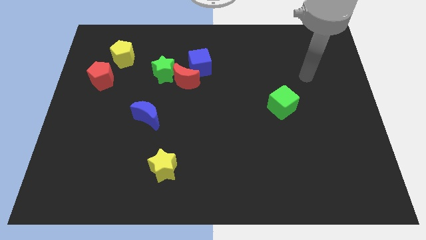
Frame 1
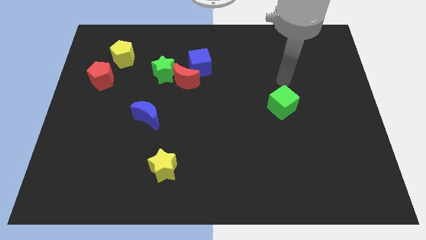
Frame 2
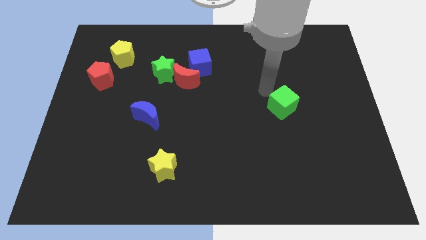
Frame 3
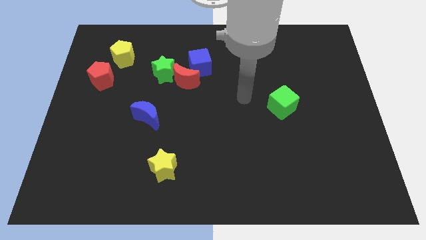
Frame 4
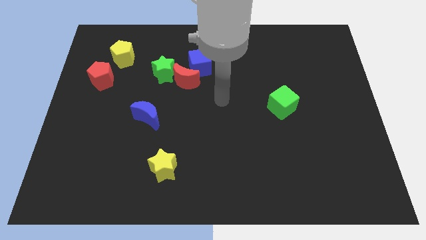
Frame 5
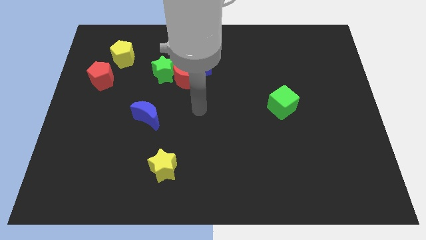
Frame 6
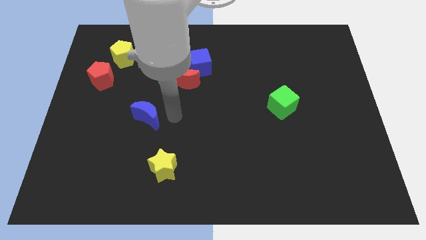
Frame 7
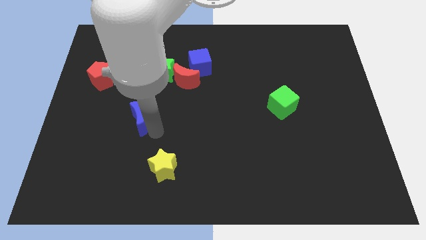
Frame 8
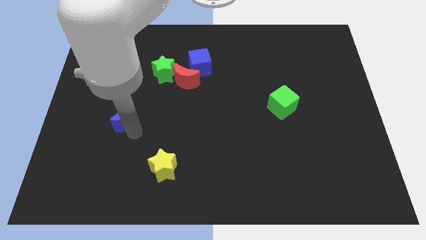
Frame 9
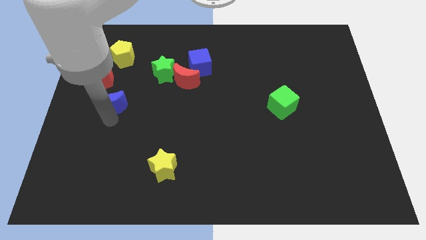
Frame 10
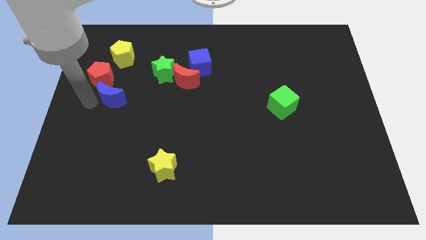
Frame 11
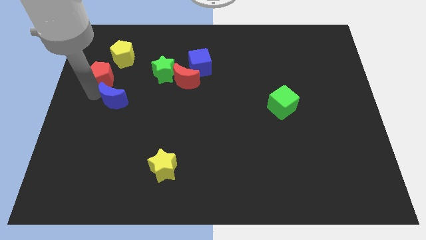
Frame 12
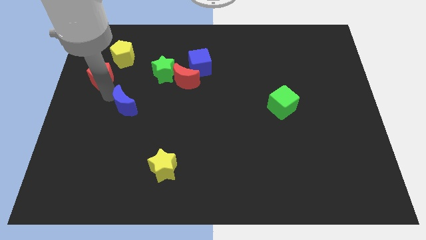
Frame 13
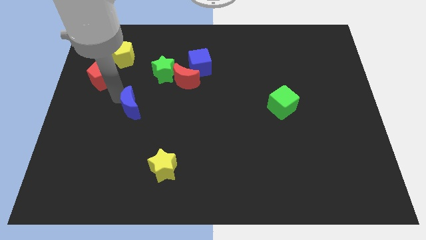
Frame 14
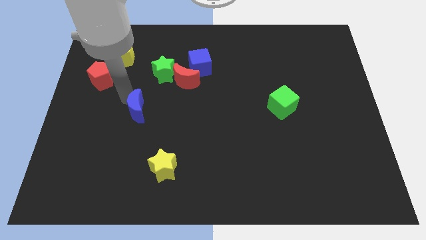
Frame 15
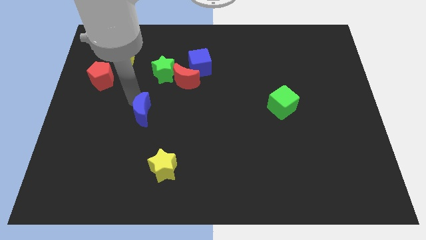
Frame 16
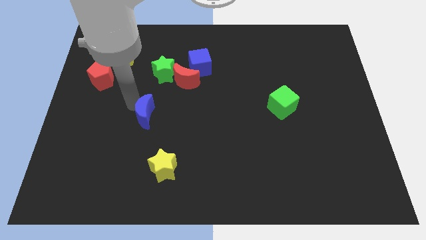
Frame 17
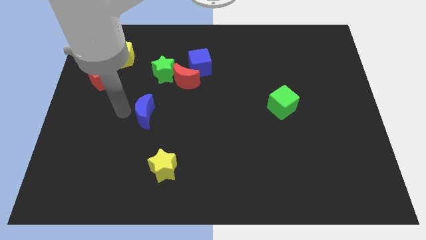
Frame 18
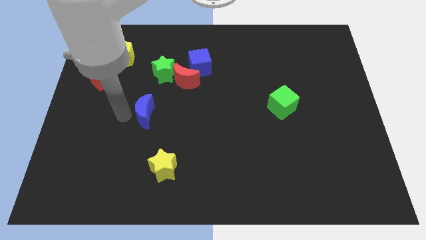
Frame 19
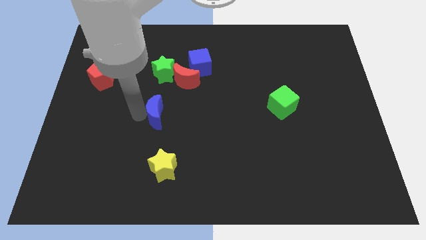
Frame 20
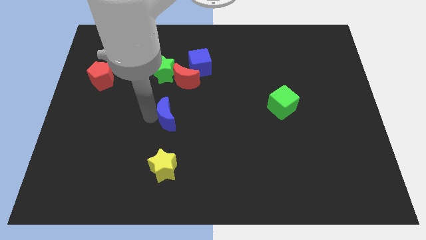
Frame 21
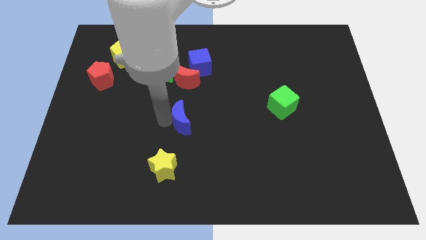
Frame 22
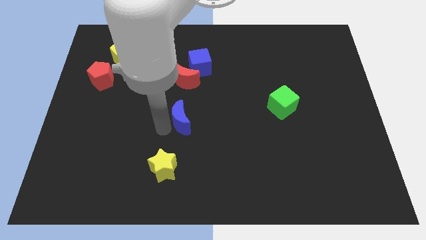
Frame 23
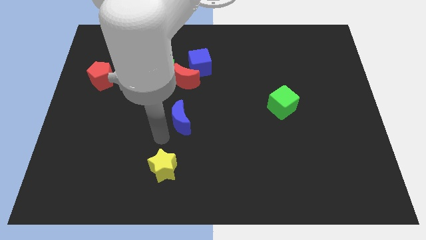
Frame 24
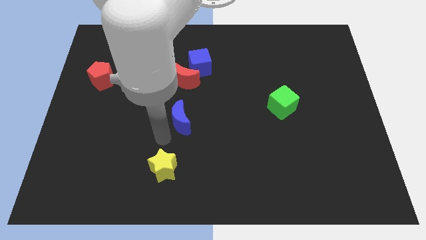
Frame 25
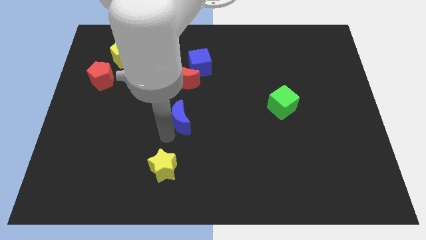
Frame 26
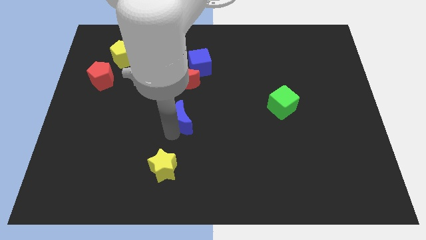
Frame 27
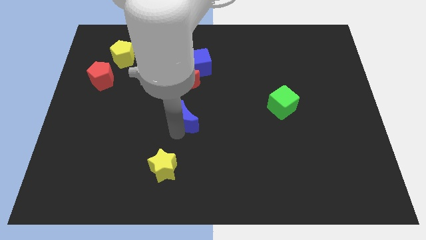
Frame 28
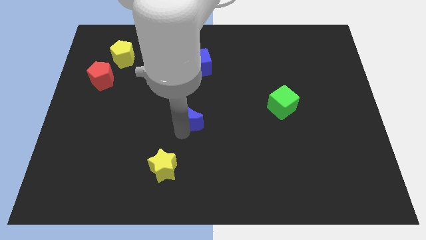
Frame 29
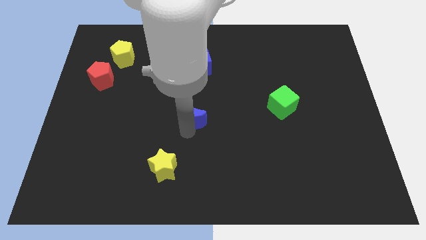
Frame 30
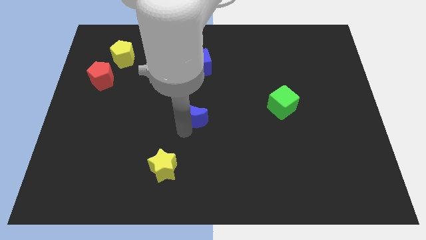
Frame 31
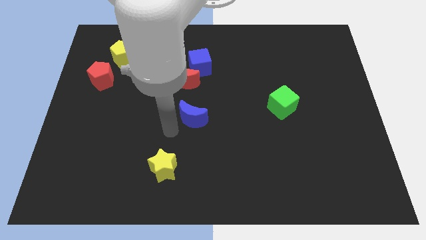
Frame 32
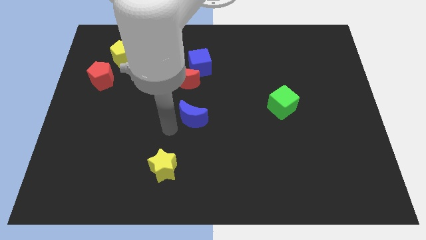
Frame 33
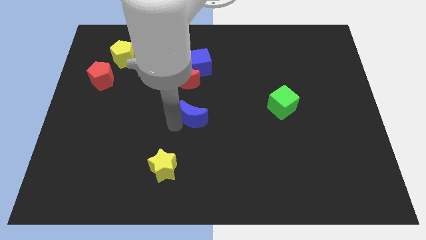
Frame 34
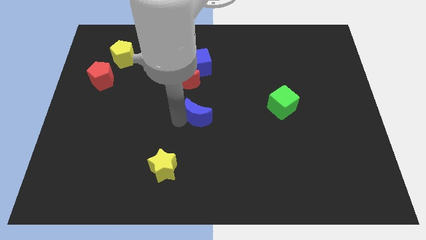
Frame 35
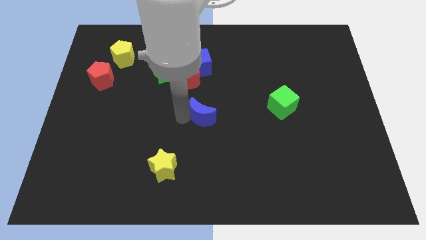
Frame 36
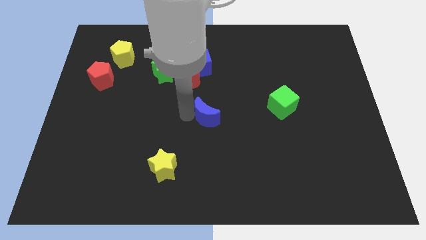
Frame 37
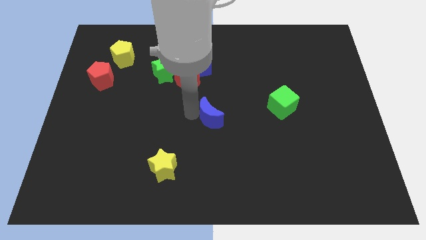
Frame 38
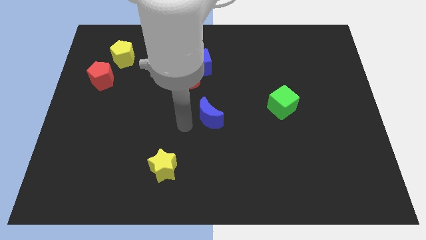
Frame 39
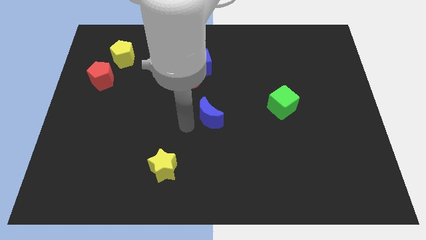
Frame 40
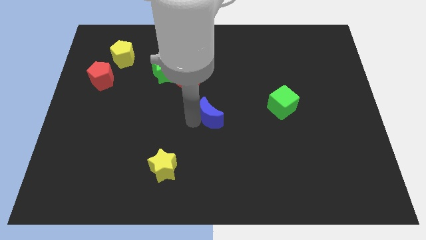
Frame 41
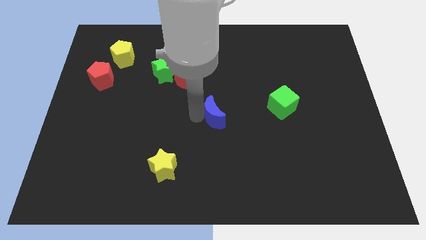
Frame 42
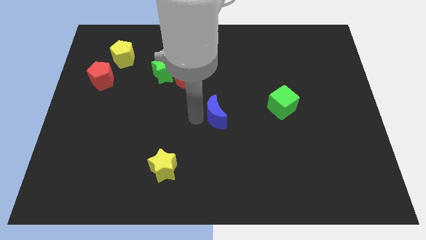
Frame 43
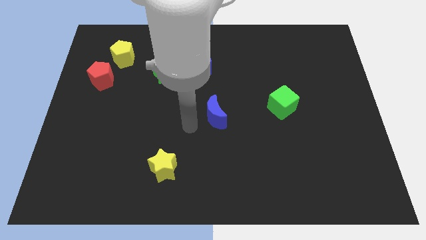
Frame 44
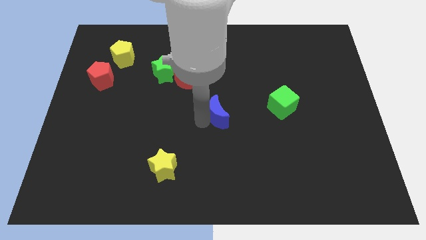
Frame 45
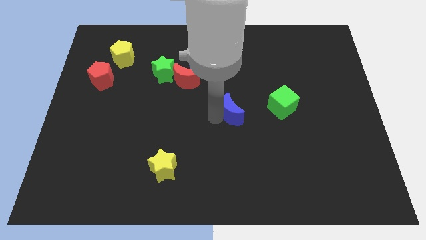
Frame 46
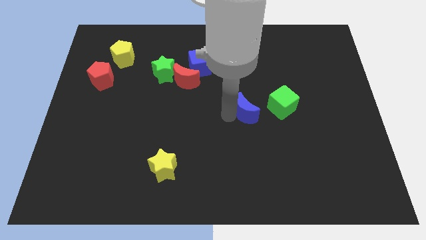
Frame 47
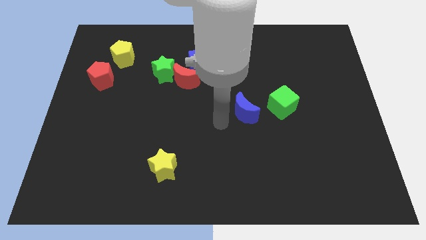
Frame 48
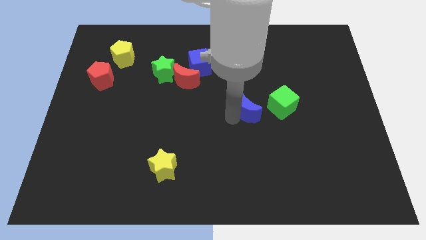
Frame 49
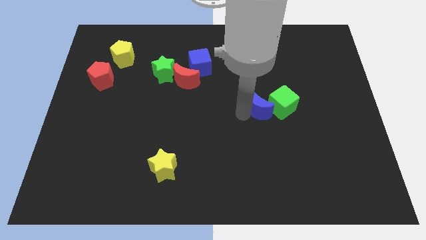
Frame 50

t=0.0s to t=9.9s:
push the blue moon to the green cube

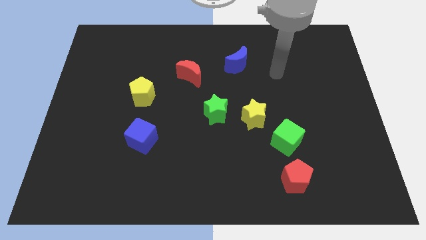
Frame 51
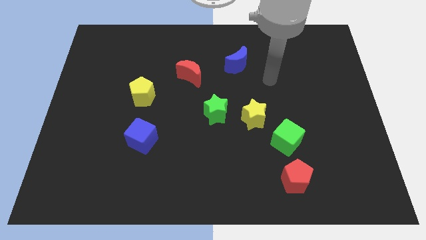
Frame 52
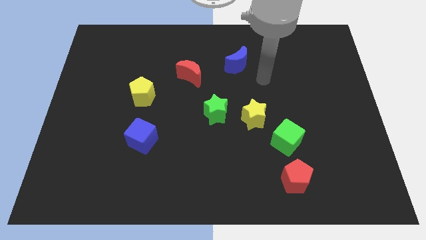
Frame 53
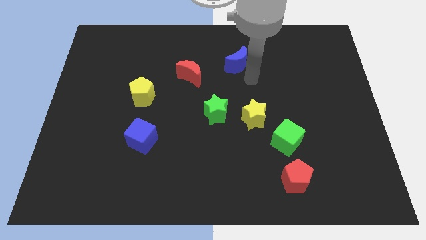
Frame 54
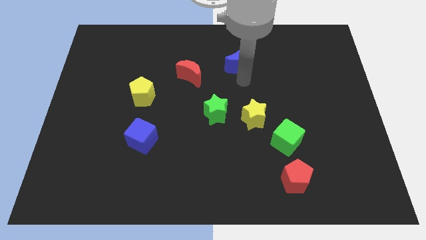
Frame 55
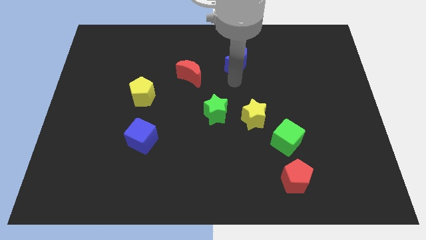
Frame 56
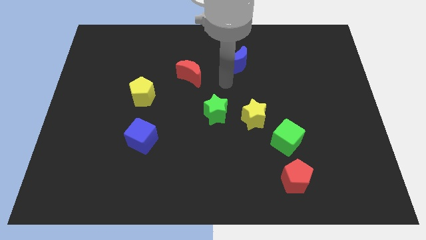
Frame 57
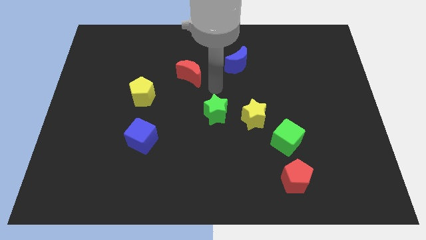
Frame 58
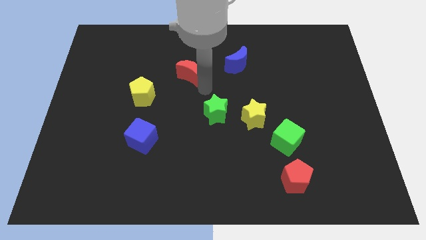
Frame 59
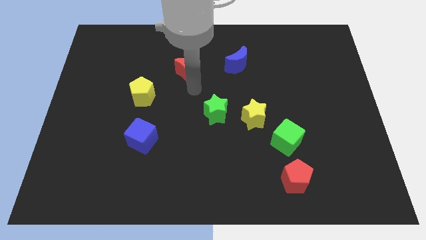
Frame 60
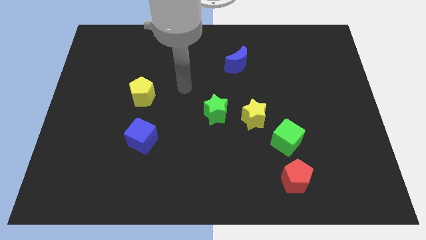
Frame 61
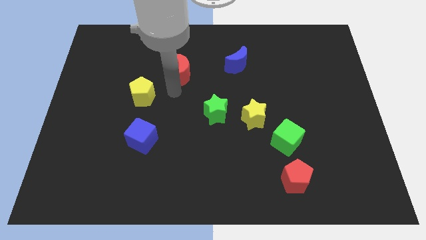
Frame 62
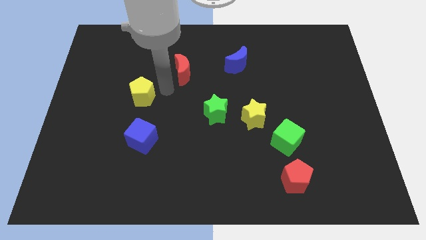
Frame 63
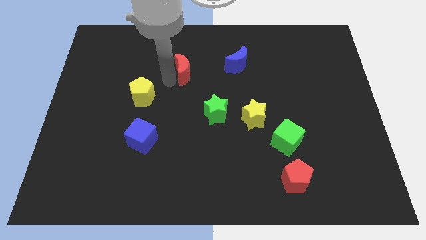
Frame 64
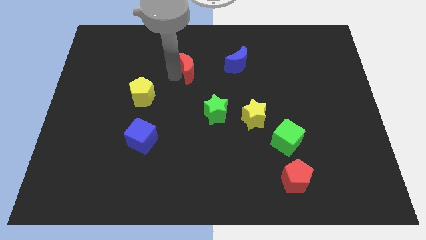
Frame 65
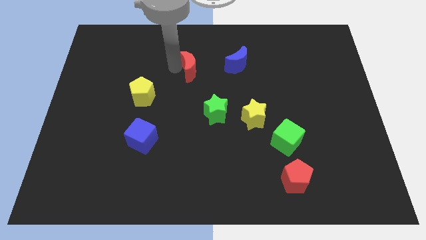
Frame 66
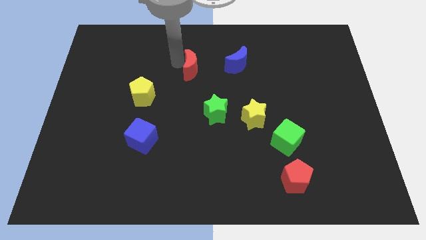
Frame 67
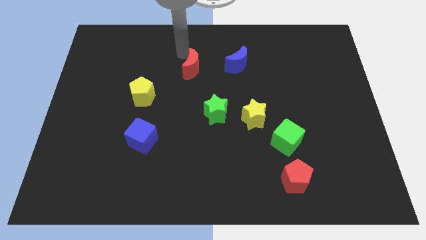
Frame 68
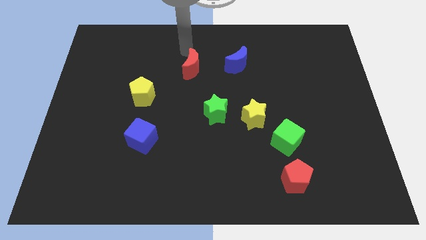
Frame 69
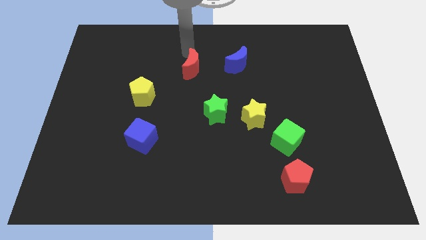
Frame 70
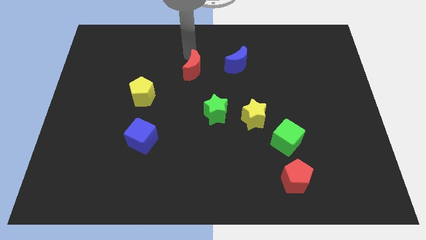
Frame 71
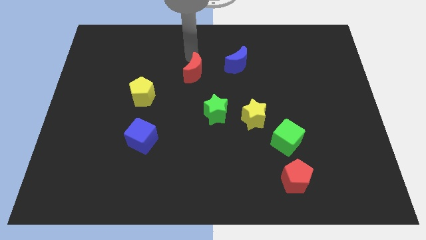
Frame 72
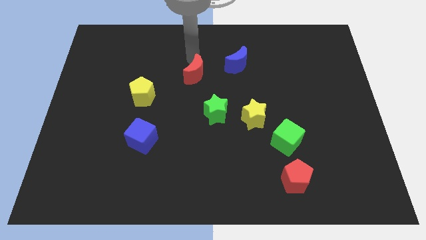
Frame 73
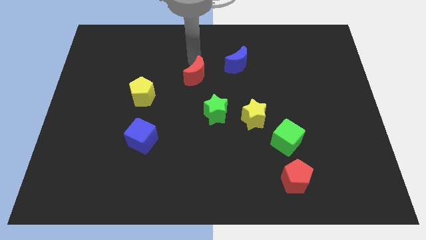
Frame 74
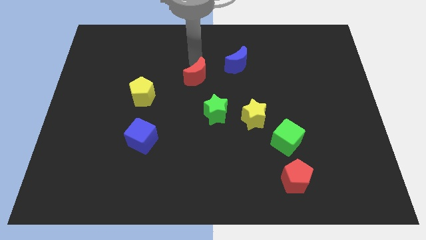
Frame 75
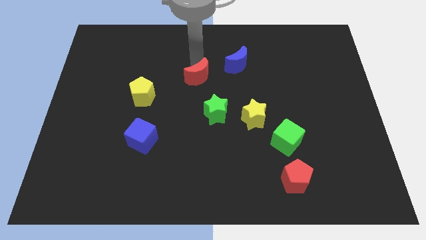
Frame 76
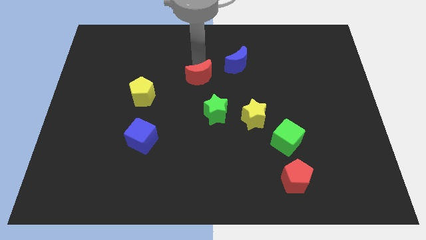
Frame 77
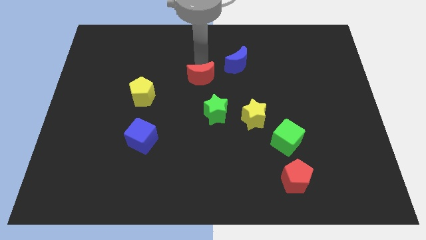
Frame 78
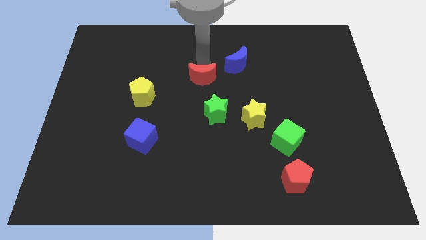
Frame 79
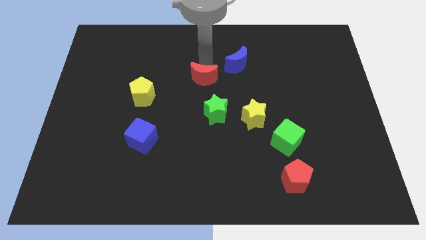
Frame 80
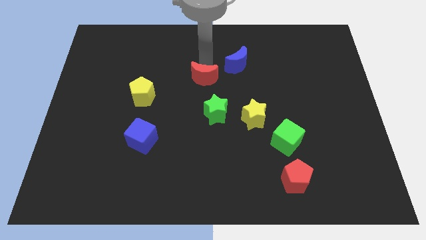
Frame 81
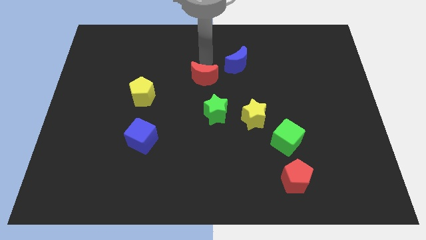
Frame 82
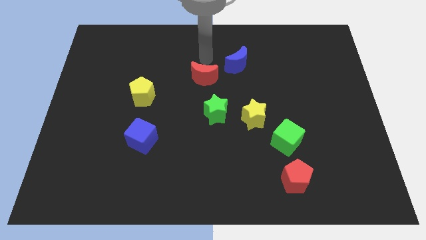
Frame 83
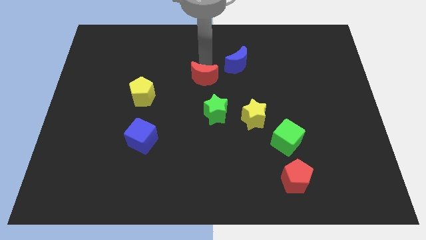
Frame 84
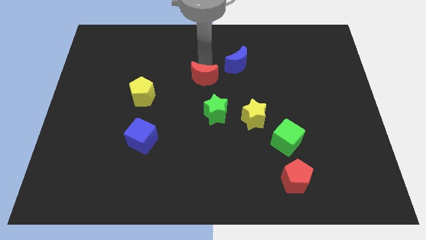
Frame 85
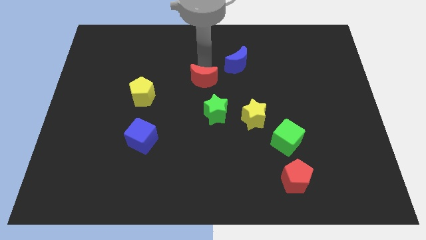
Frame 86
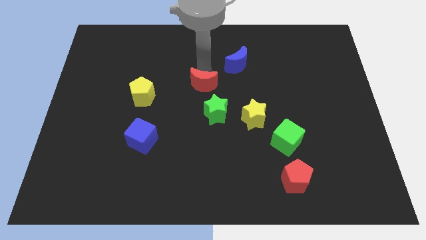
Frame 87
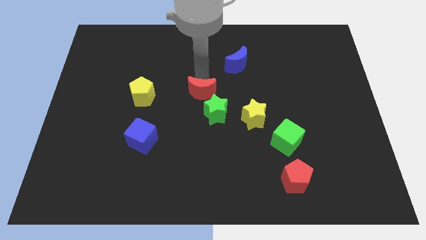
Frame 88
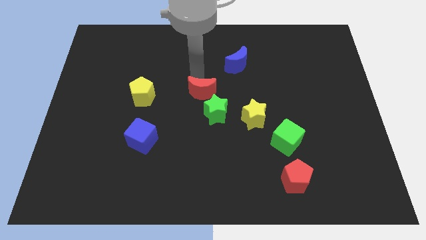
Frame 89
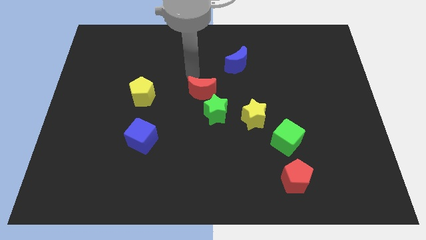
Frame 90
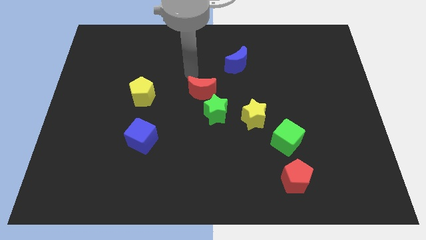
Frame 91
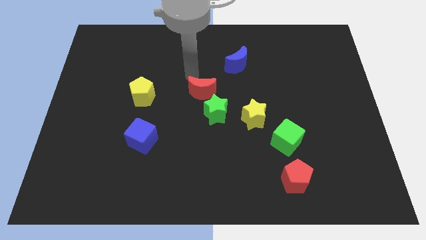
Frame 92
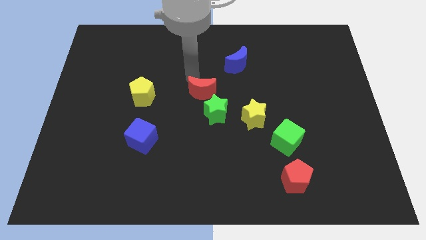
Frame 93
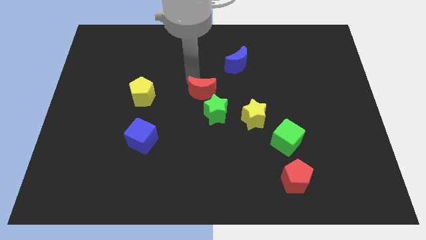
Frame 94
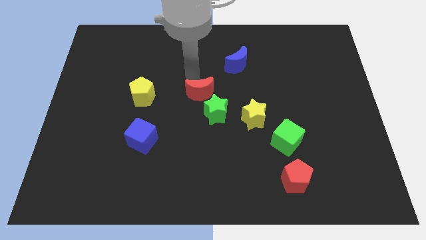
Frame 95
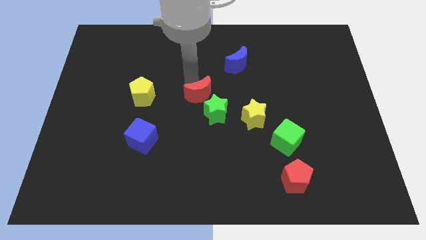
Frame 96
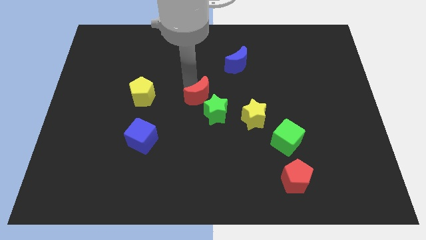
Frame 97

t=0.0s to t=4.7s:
slide the red moon to the green star
